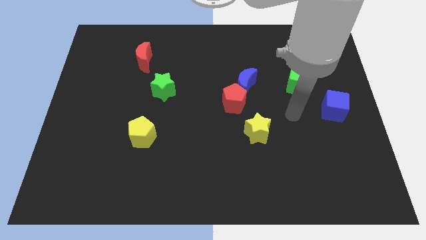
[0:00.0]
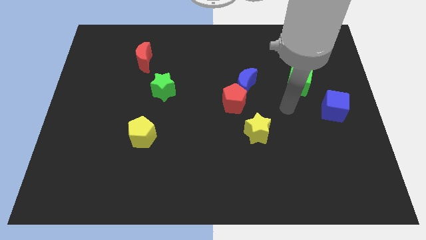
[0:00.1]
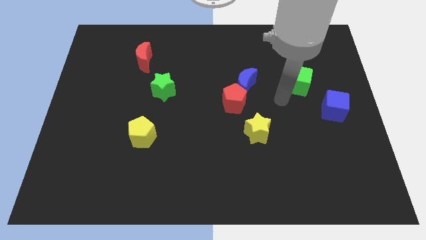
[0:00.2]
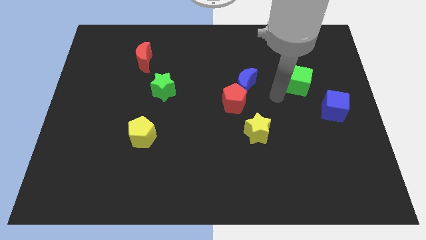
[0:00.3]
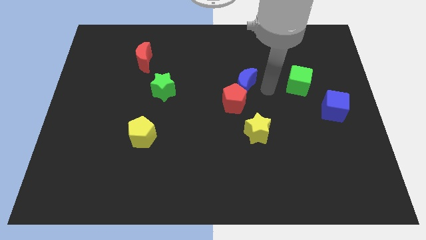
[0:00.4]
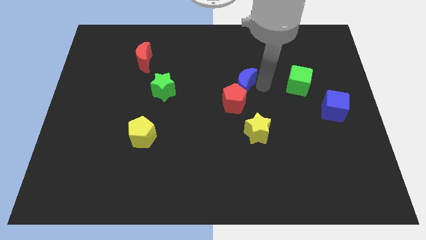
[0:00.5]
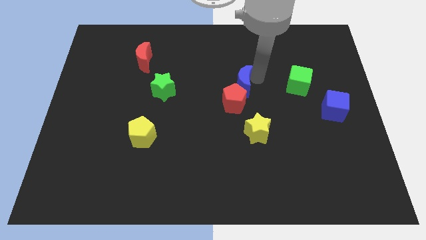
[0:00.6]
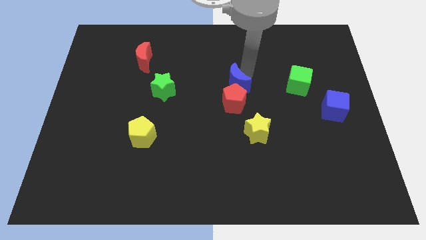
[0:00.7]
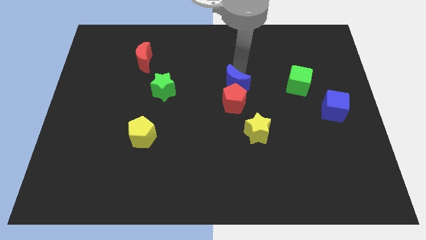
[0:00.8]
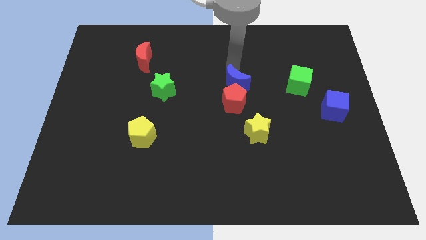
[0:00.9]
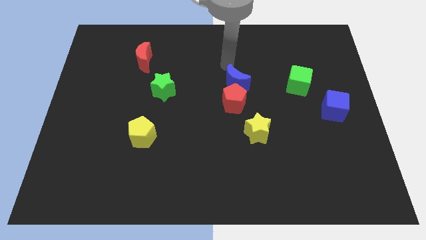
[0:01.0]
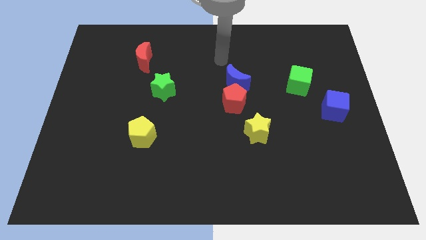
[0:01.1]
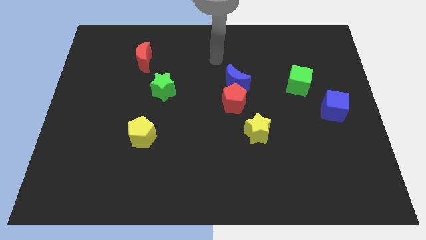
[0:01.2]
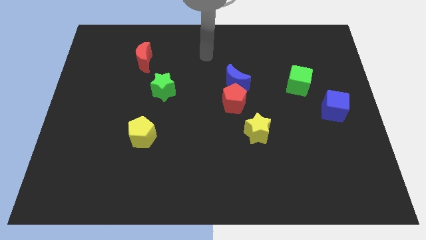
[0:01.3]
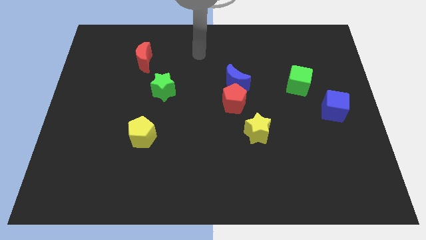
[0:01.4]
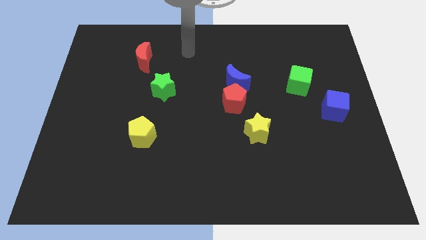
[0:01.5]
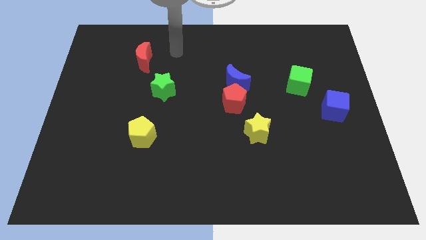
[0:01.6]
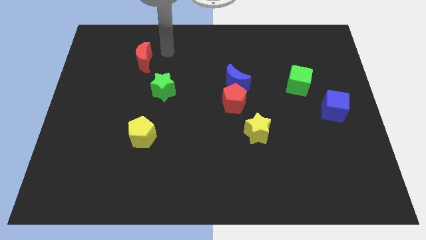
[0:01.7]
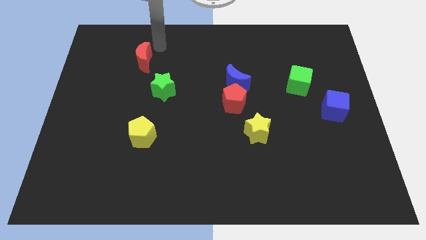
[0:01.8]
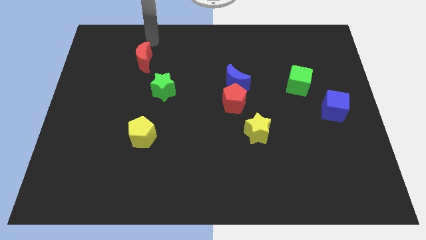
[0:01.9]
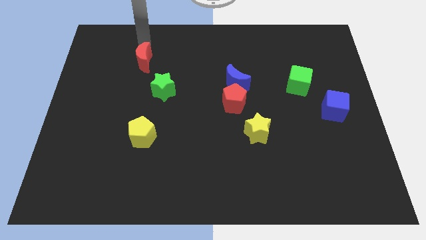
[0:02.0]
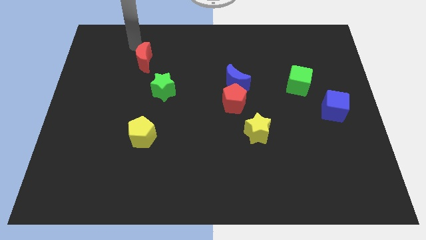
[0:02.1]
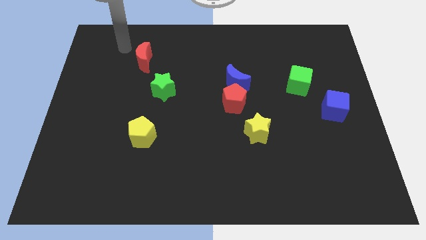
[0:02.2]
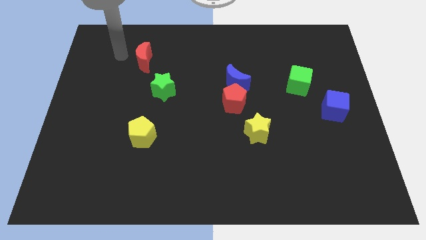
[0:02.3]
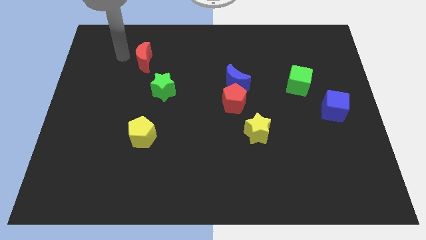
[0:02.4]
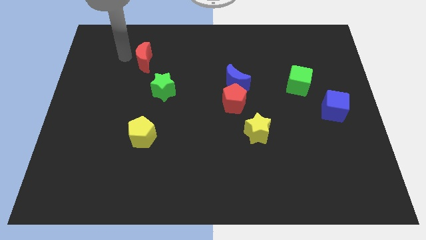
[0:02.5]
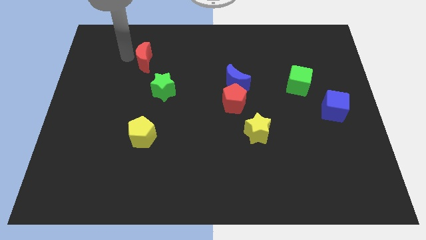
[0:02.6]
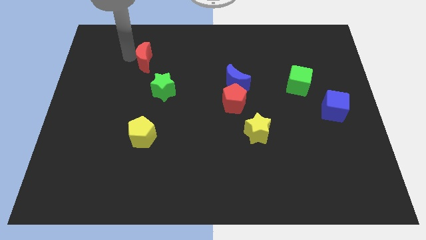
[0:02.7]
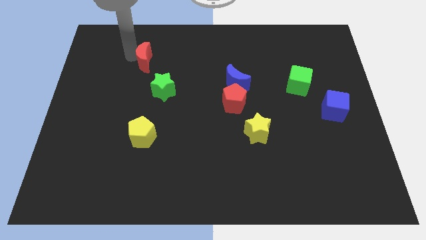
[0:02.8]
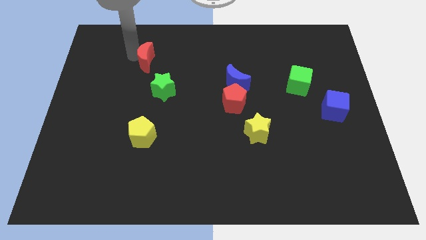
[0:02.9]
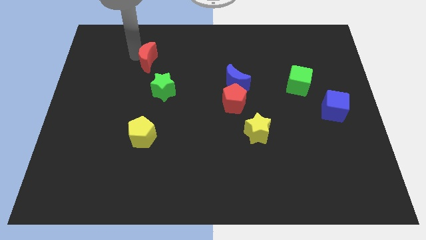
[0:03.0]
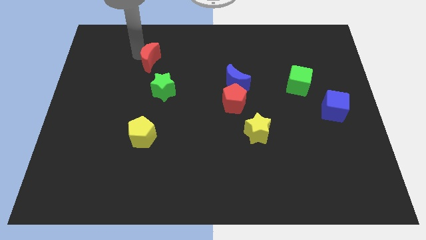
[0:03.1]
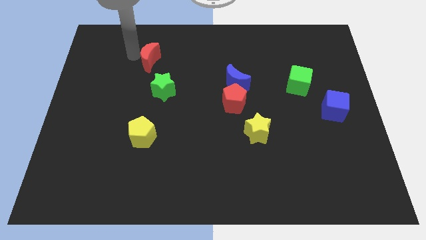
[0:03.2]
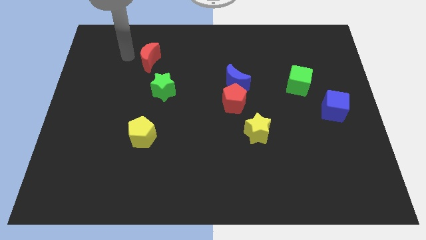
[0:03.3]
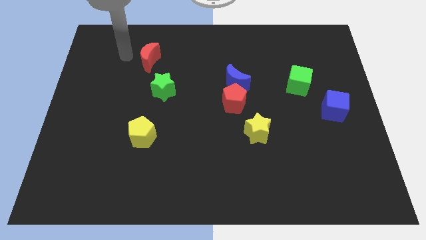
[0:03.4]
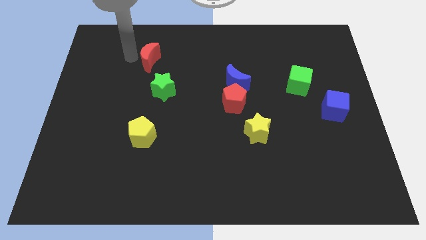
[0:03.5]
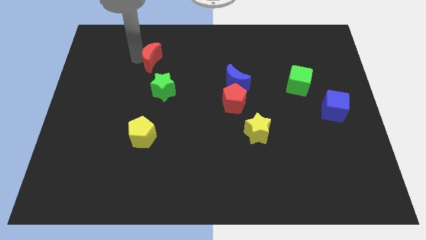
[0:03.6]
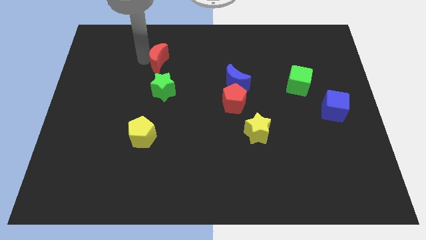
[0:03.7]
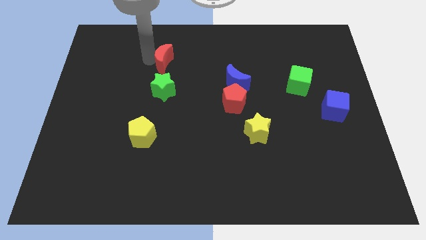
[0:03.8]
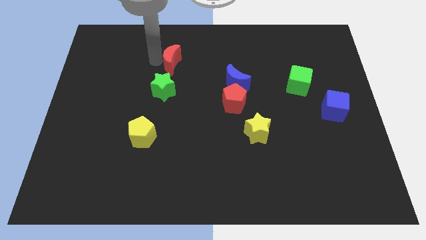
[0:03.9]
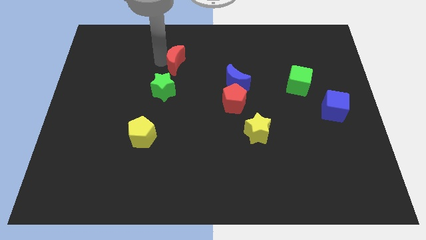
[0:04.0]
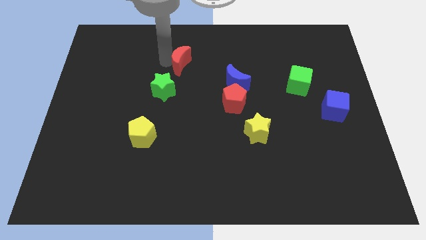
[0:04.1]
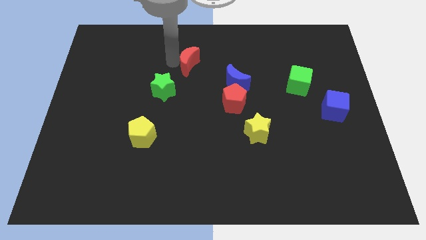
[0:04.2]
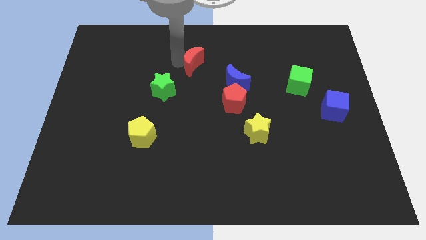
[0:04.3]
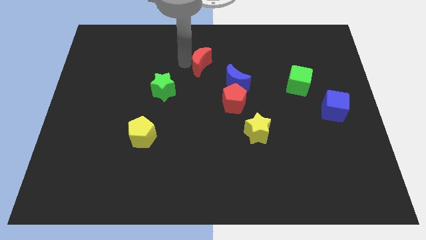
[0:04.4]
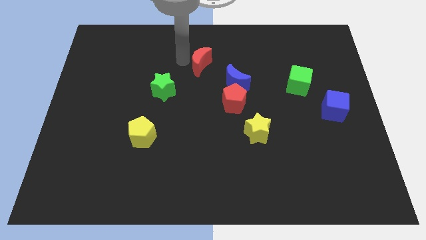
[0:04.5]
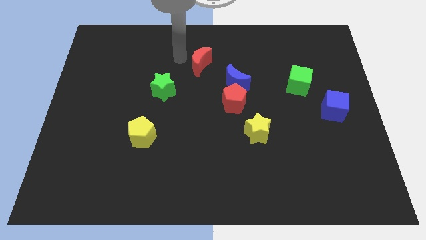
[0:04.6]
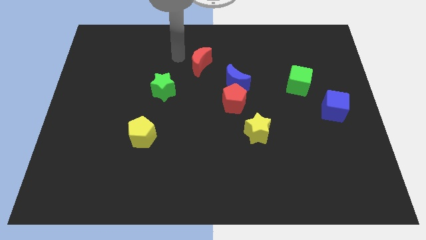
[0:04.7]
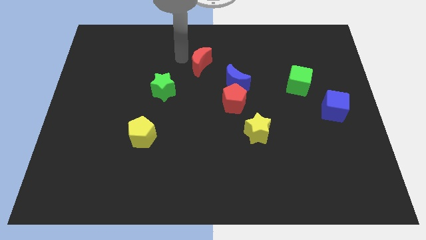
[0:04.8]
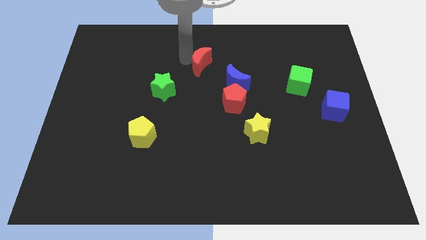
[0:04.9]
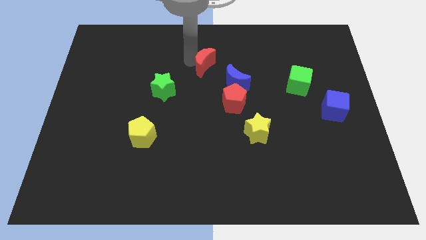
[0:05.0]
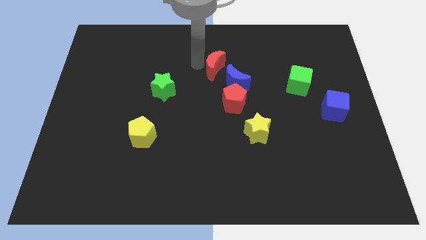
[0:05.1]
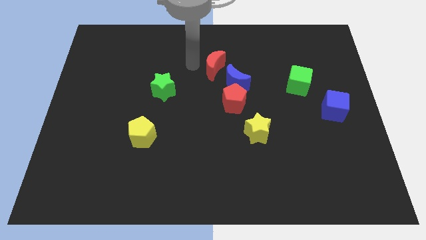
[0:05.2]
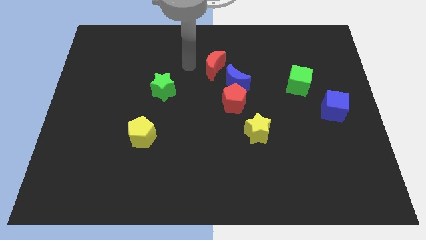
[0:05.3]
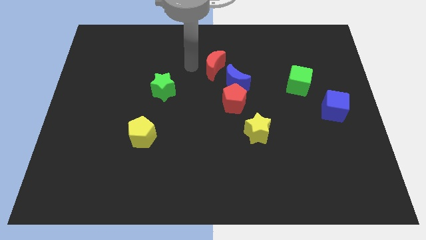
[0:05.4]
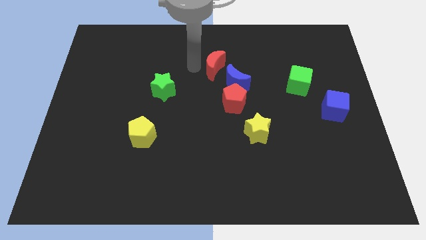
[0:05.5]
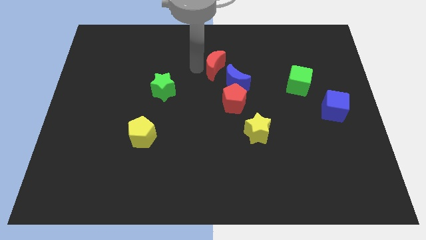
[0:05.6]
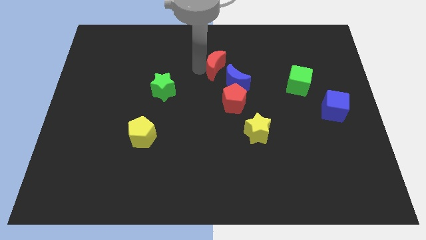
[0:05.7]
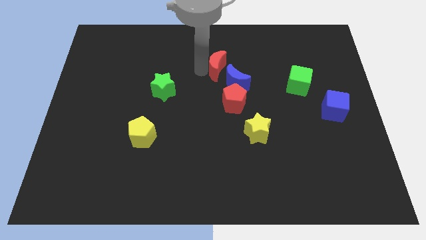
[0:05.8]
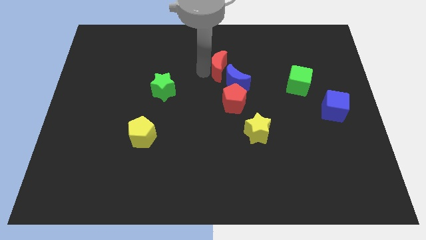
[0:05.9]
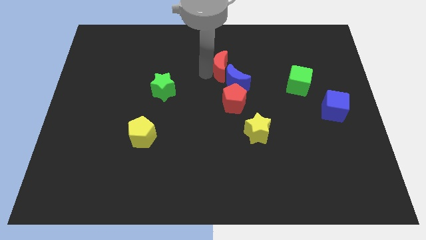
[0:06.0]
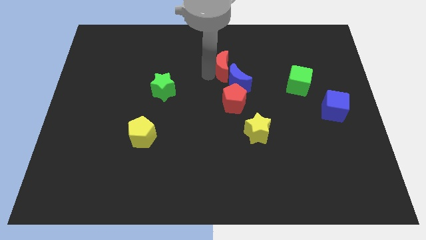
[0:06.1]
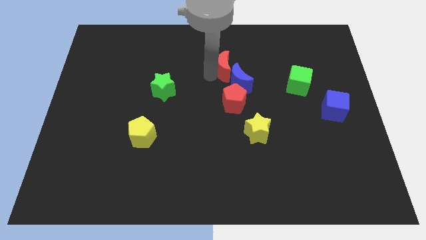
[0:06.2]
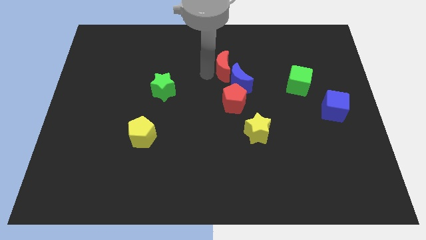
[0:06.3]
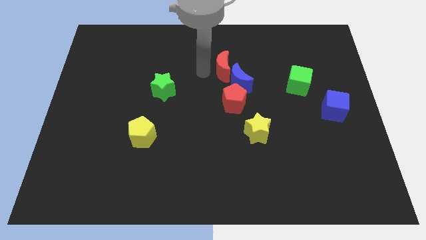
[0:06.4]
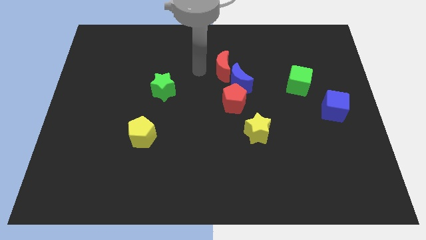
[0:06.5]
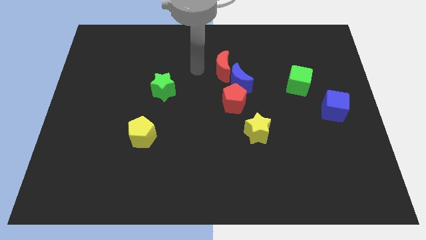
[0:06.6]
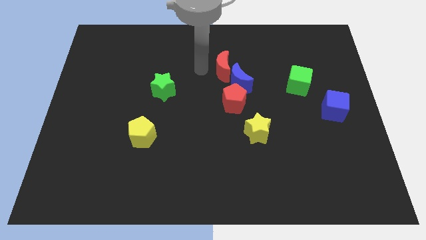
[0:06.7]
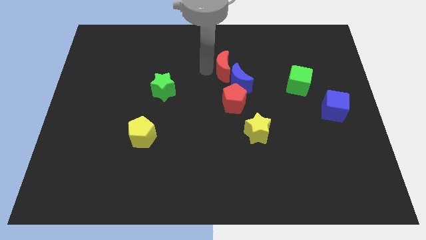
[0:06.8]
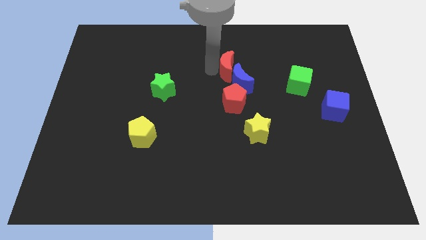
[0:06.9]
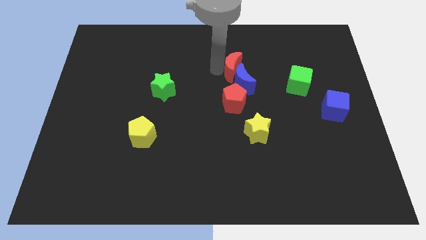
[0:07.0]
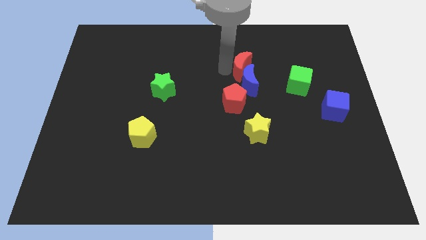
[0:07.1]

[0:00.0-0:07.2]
slide the red moon to the top right of the blue moon
